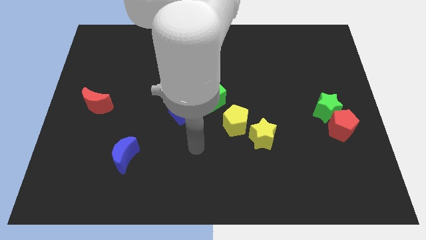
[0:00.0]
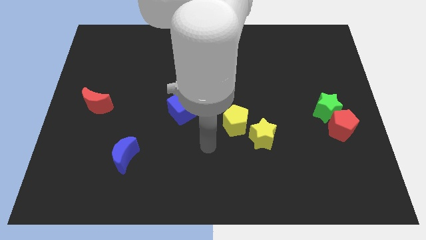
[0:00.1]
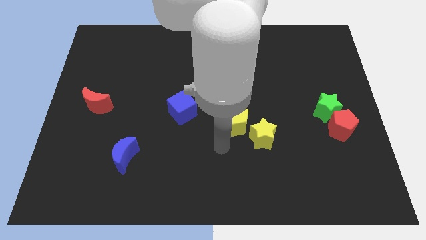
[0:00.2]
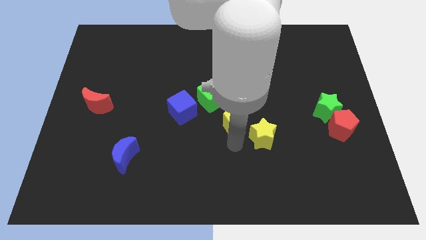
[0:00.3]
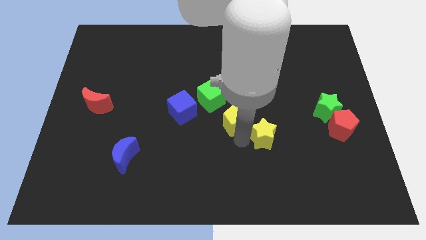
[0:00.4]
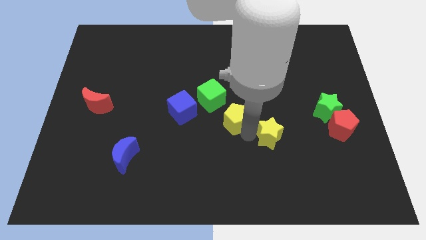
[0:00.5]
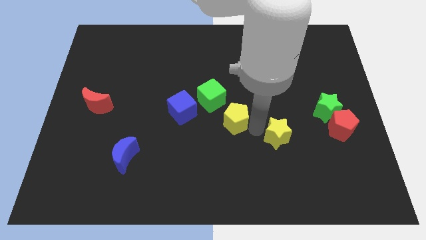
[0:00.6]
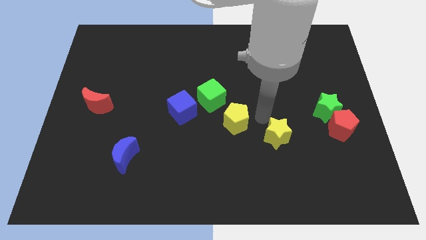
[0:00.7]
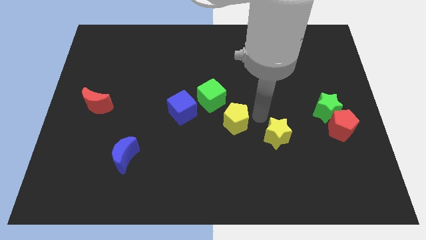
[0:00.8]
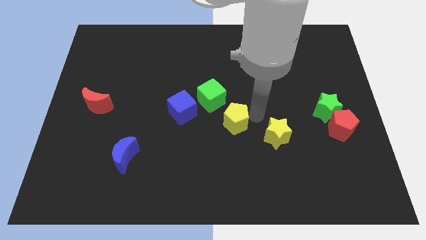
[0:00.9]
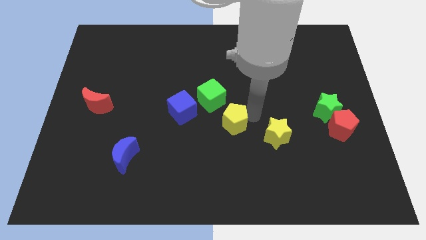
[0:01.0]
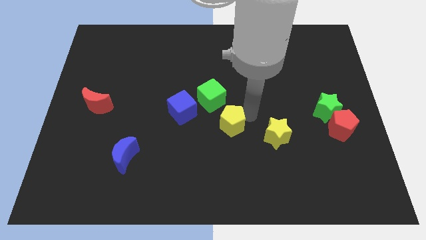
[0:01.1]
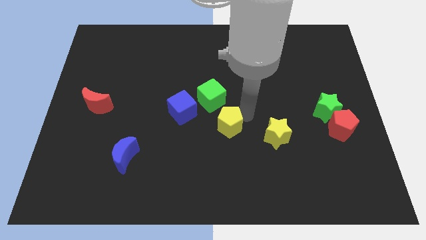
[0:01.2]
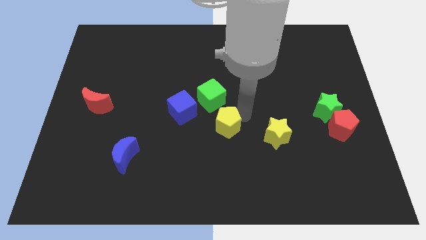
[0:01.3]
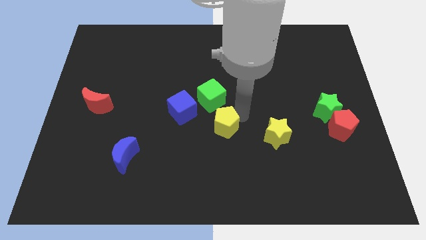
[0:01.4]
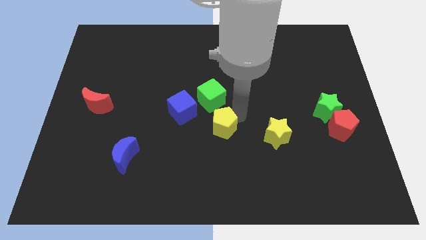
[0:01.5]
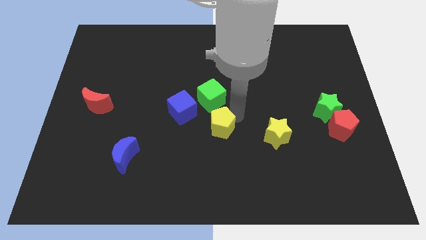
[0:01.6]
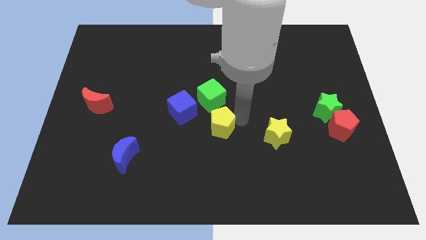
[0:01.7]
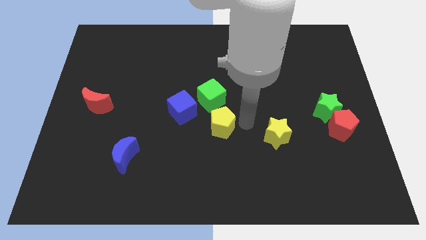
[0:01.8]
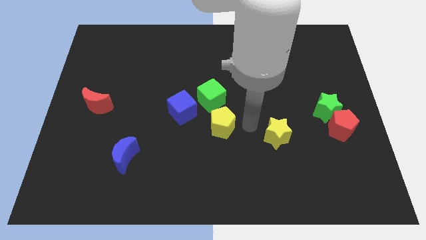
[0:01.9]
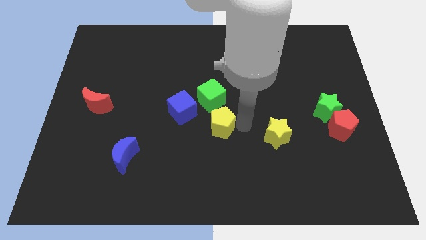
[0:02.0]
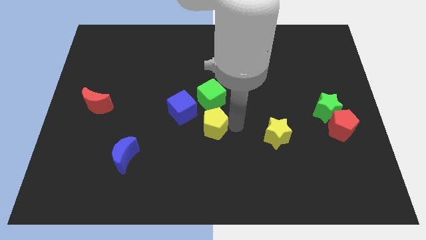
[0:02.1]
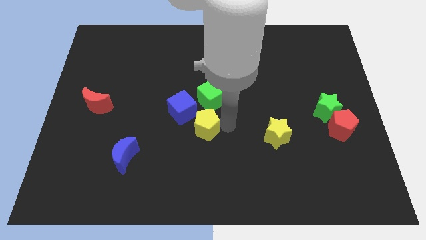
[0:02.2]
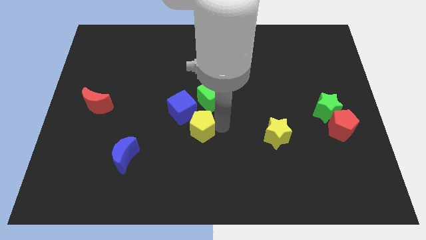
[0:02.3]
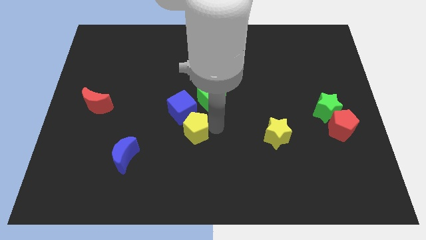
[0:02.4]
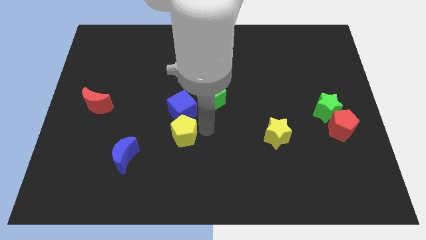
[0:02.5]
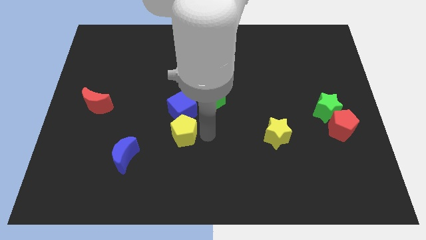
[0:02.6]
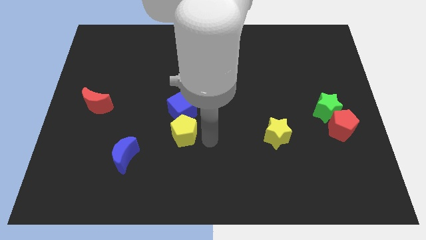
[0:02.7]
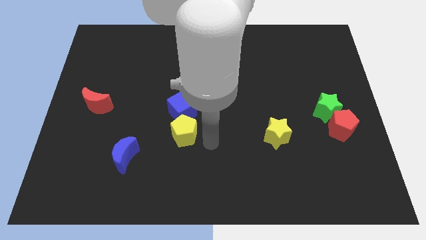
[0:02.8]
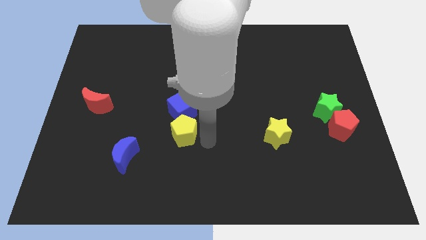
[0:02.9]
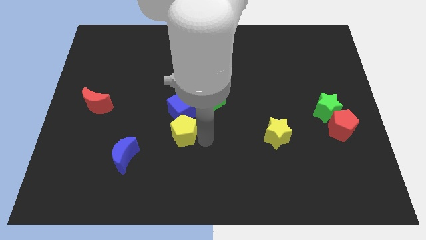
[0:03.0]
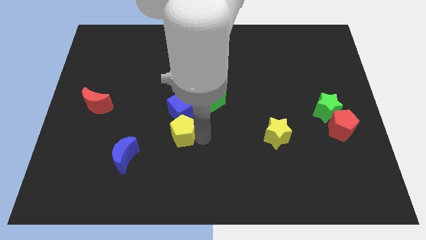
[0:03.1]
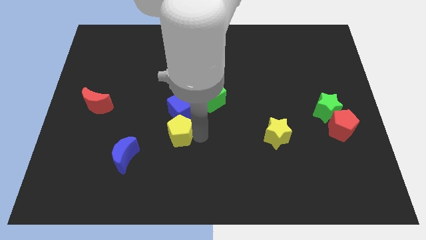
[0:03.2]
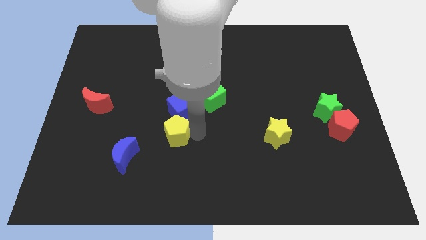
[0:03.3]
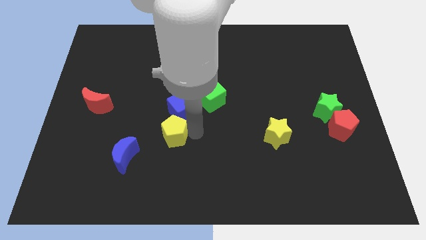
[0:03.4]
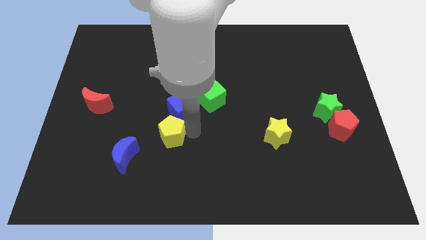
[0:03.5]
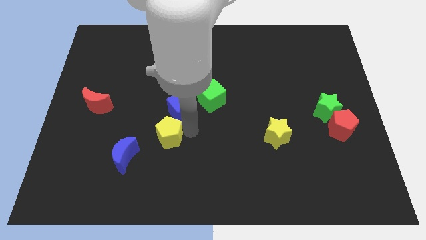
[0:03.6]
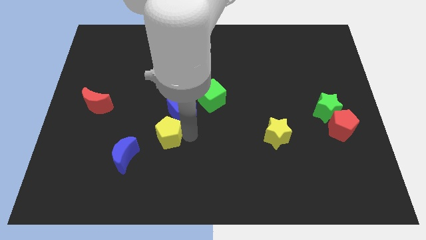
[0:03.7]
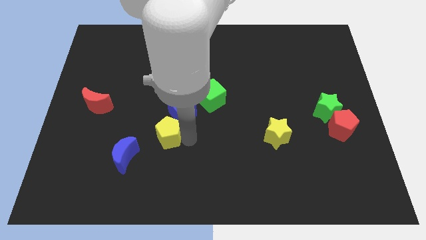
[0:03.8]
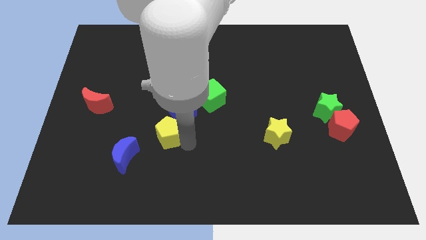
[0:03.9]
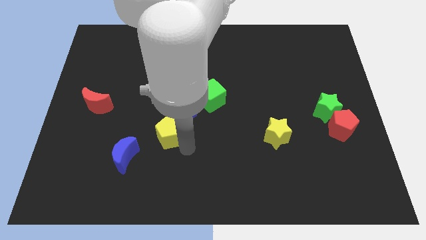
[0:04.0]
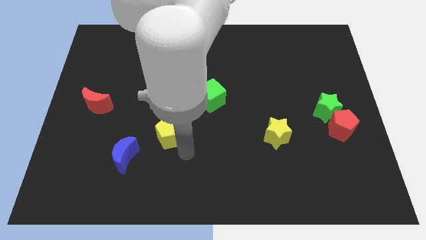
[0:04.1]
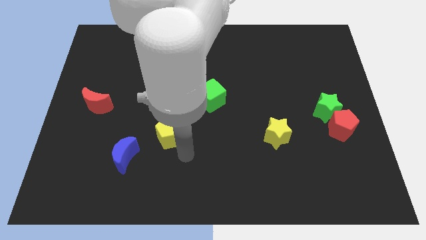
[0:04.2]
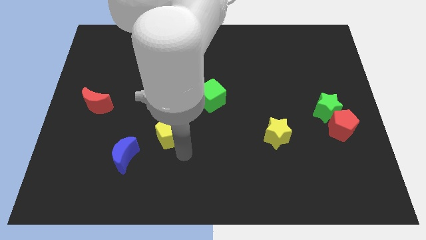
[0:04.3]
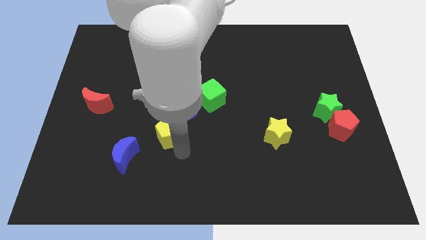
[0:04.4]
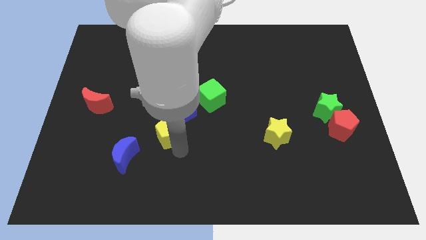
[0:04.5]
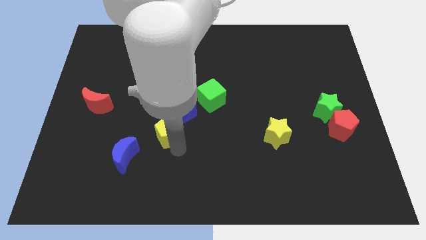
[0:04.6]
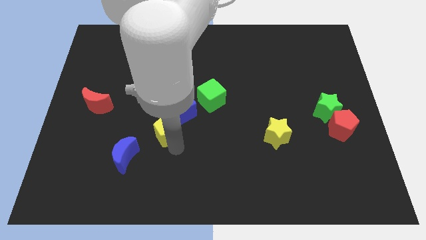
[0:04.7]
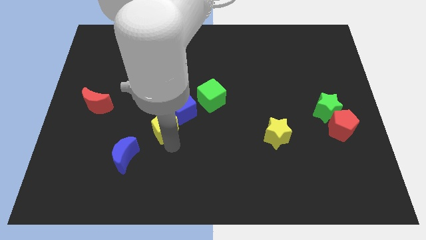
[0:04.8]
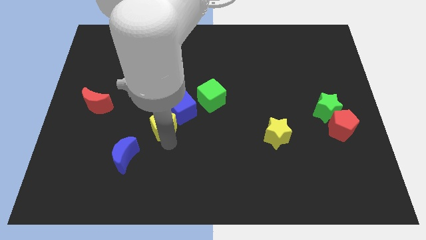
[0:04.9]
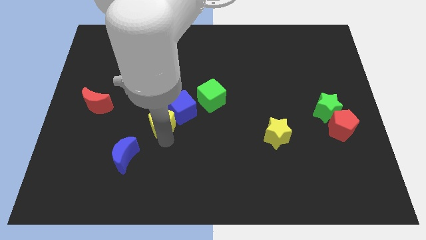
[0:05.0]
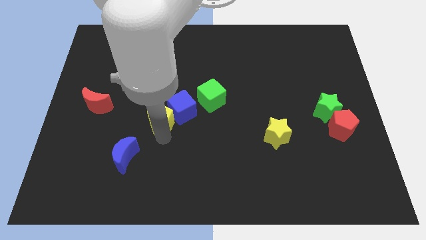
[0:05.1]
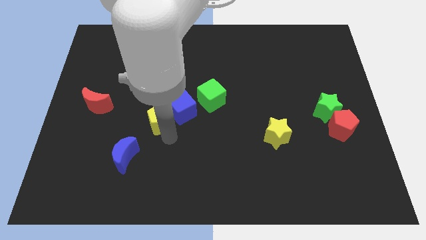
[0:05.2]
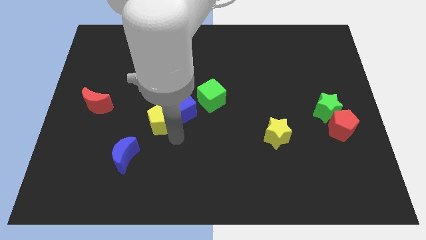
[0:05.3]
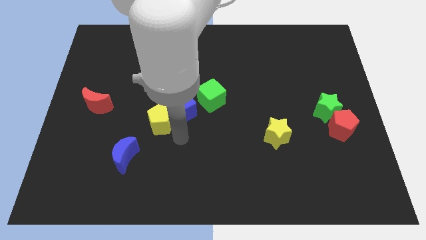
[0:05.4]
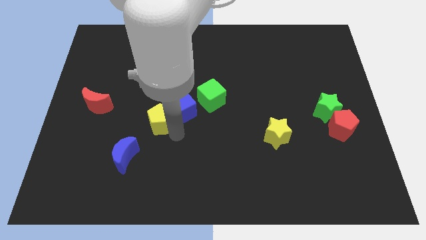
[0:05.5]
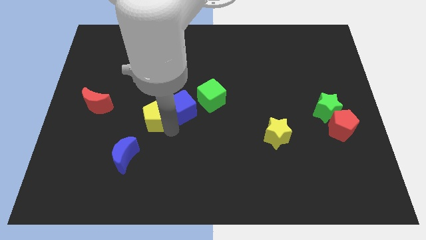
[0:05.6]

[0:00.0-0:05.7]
push the yellow pentagon to the right of the red moon

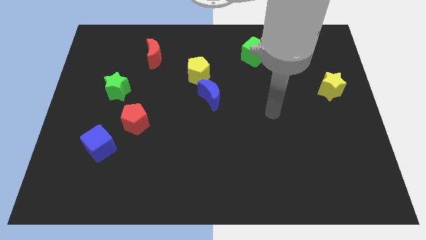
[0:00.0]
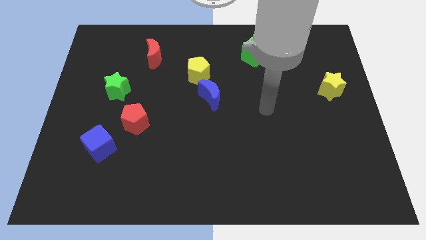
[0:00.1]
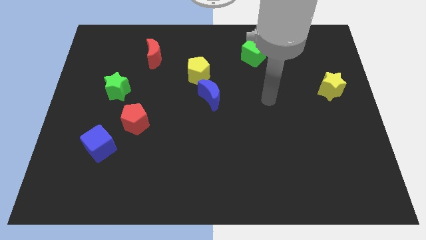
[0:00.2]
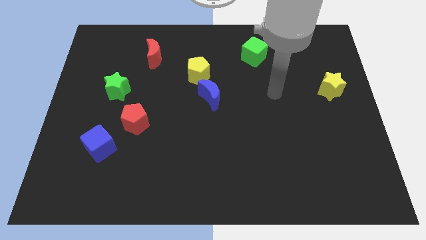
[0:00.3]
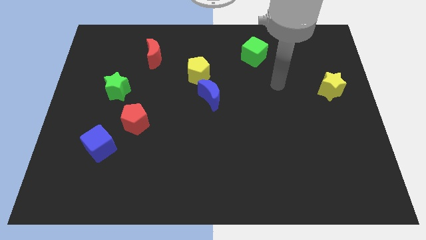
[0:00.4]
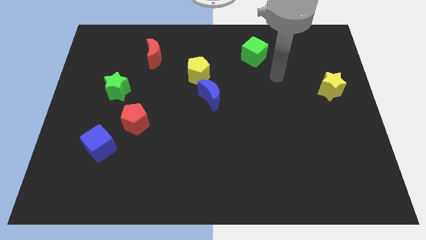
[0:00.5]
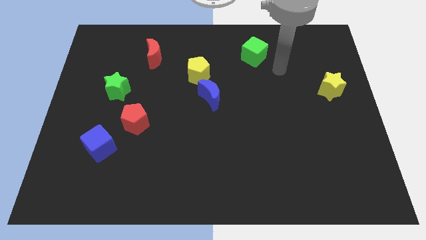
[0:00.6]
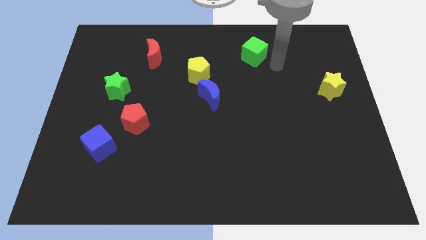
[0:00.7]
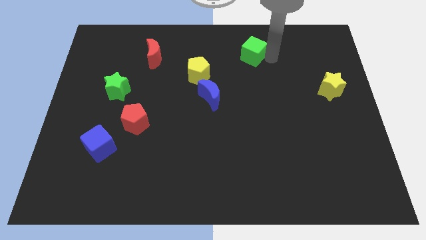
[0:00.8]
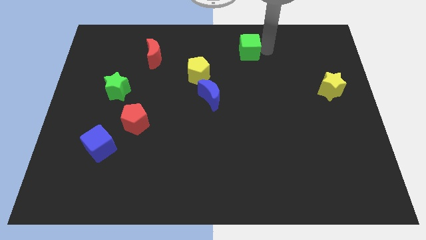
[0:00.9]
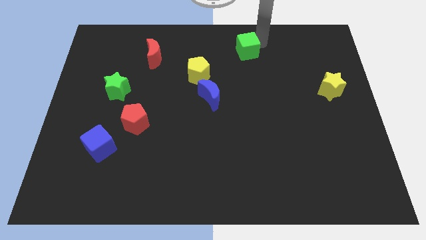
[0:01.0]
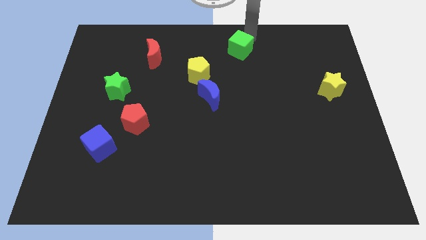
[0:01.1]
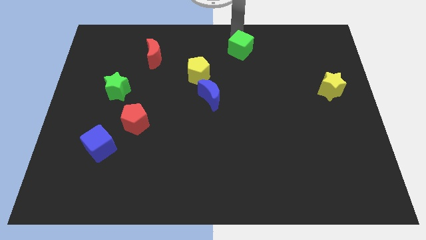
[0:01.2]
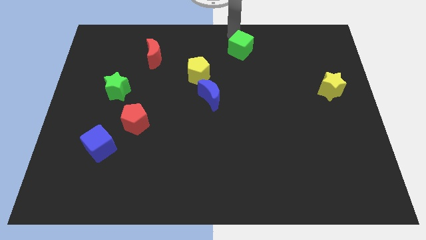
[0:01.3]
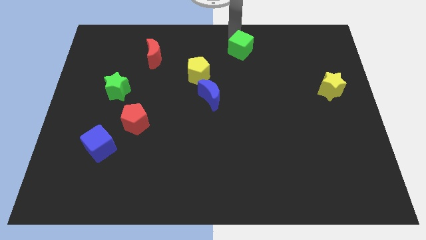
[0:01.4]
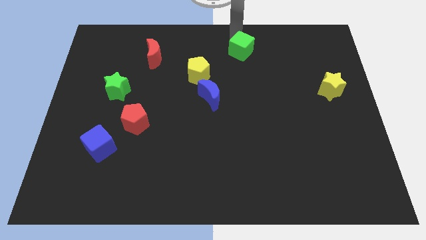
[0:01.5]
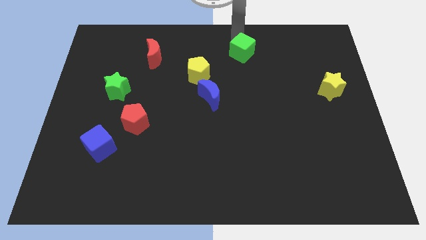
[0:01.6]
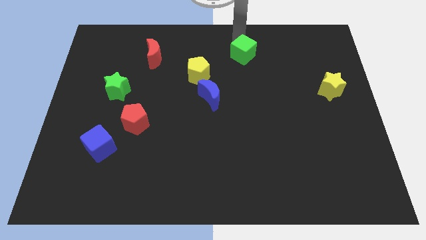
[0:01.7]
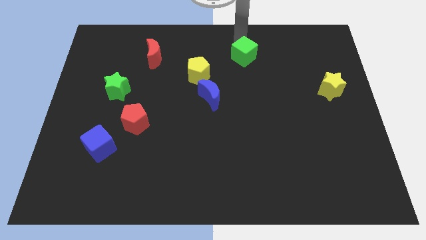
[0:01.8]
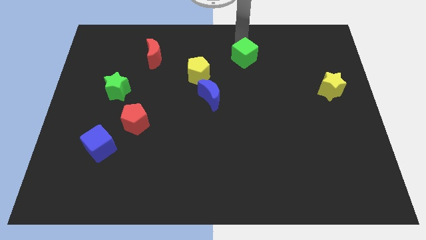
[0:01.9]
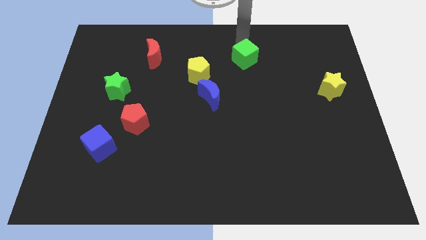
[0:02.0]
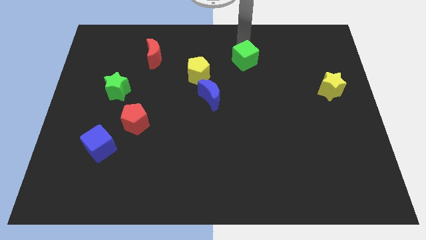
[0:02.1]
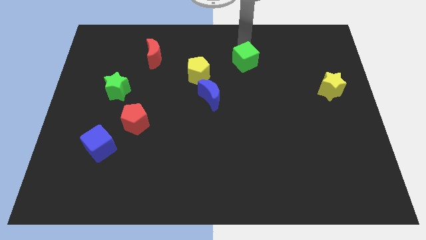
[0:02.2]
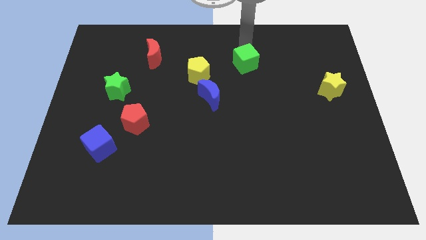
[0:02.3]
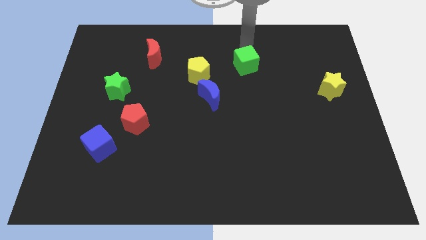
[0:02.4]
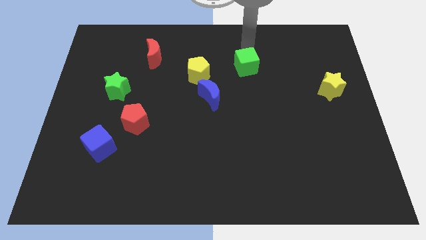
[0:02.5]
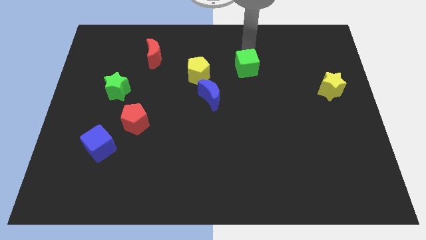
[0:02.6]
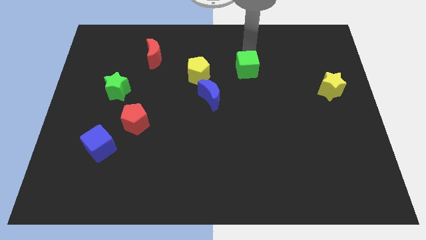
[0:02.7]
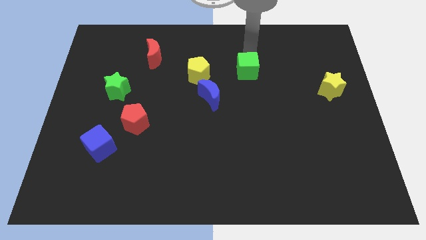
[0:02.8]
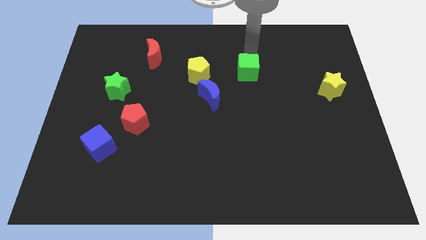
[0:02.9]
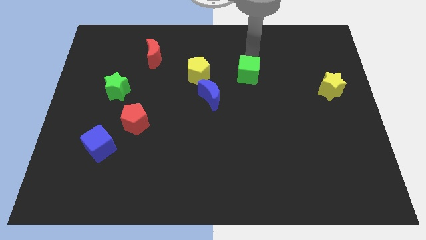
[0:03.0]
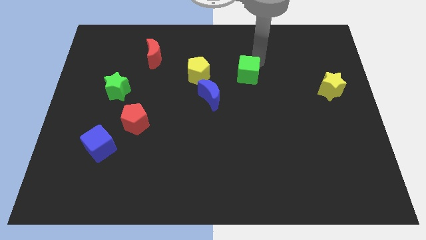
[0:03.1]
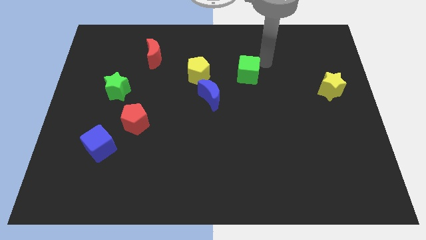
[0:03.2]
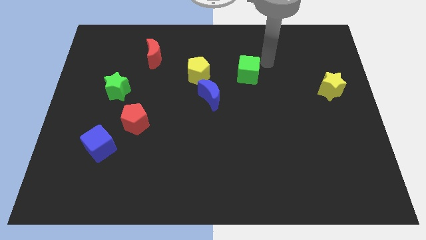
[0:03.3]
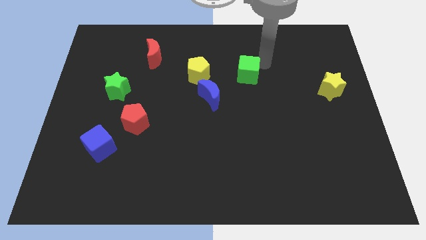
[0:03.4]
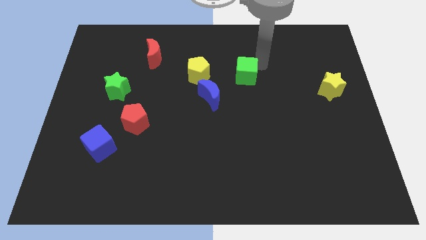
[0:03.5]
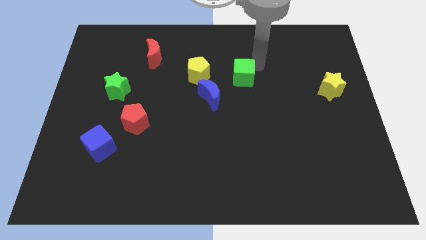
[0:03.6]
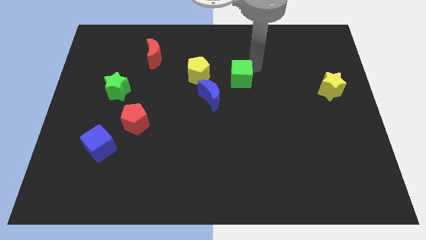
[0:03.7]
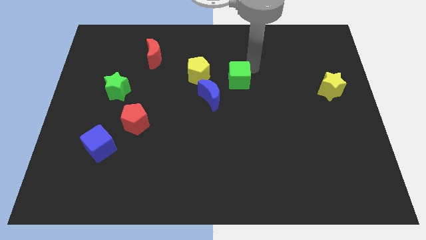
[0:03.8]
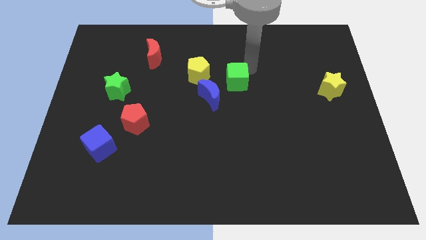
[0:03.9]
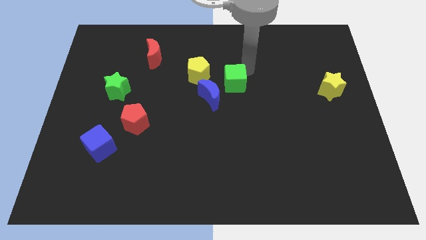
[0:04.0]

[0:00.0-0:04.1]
put the green cube to the bottom right side of the yellow pentagon
